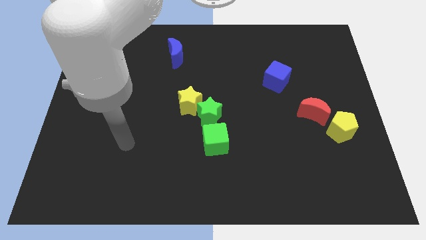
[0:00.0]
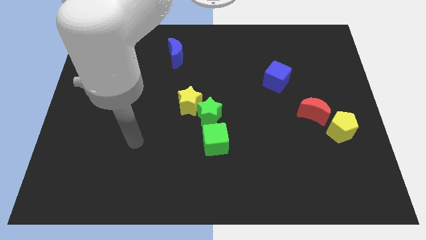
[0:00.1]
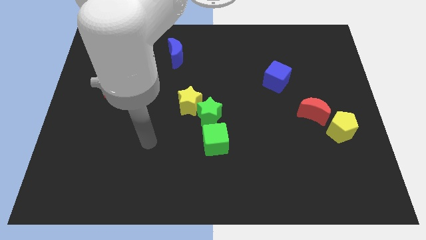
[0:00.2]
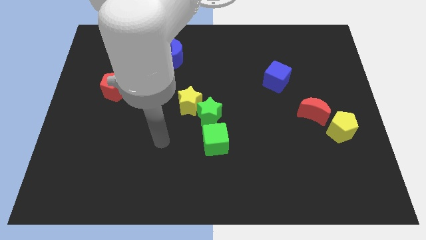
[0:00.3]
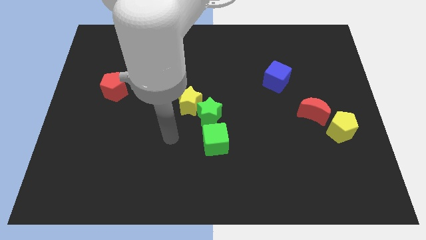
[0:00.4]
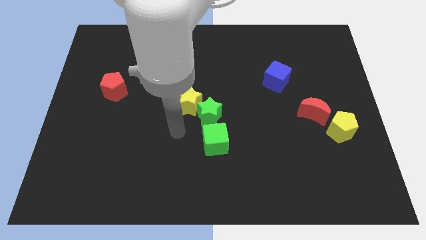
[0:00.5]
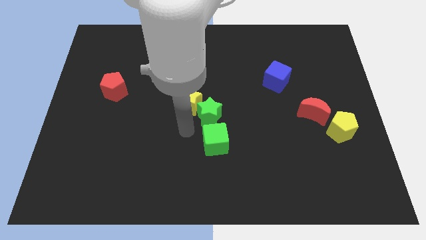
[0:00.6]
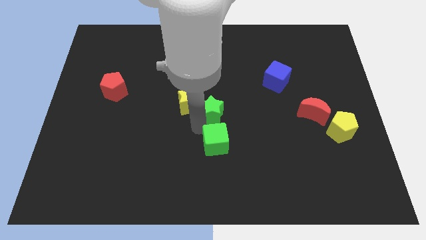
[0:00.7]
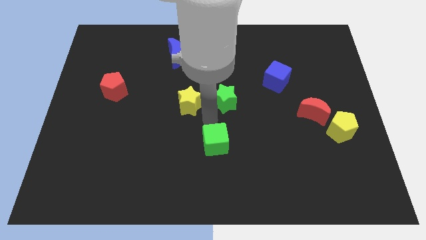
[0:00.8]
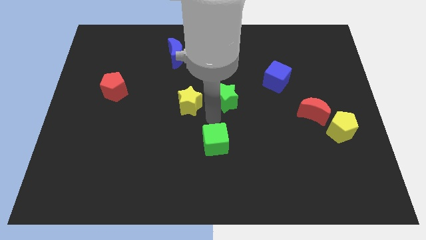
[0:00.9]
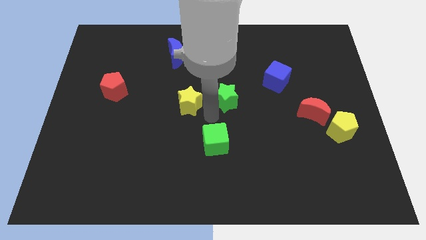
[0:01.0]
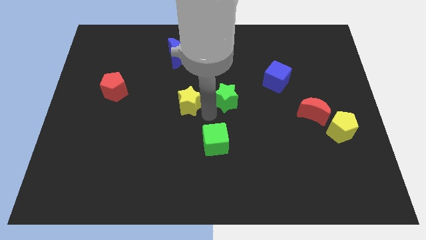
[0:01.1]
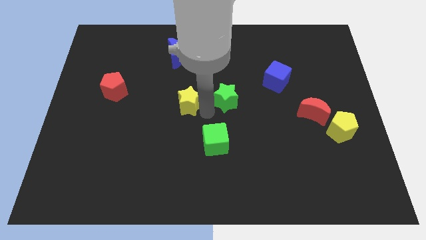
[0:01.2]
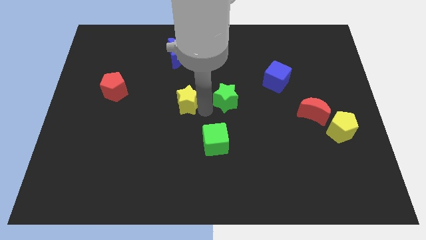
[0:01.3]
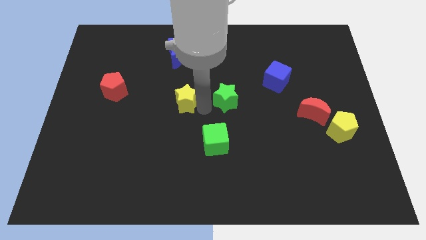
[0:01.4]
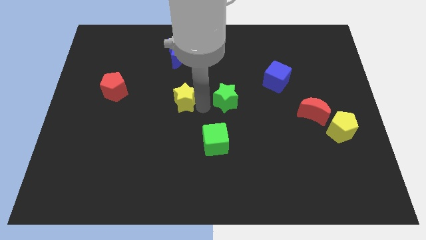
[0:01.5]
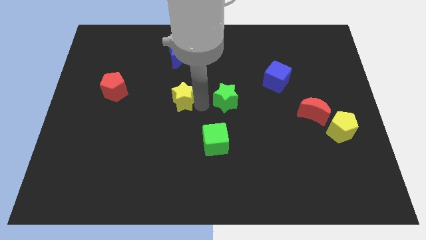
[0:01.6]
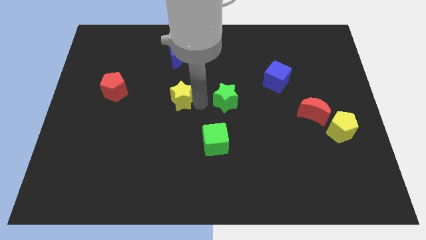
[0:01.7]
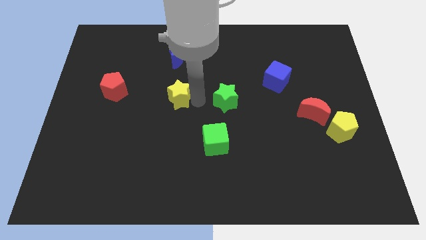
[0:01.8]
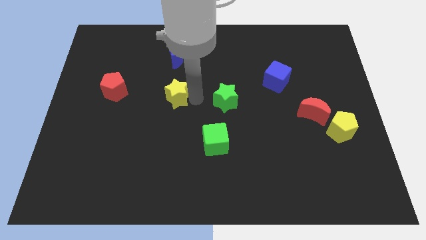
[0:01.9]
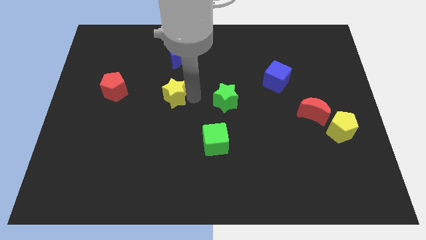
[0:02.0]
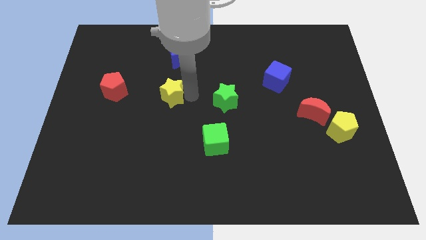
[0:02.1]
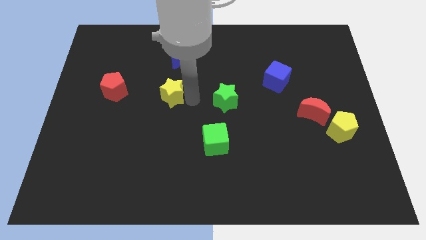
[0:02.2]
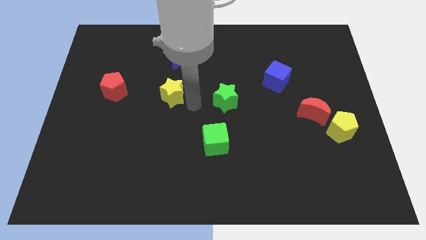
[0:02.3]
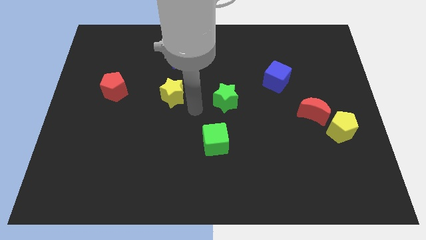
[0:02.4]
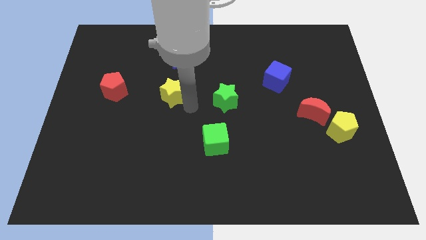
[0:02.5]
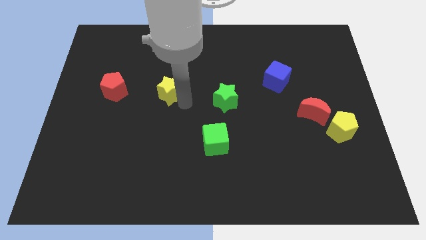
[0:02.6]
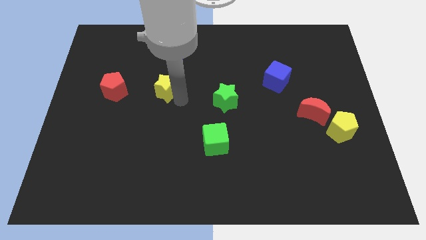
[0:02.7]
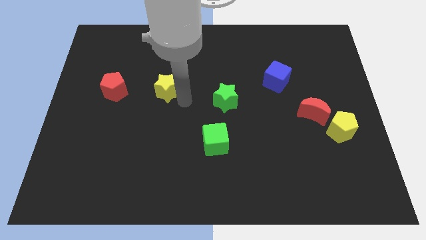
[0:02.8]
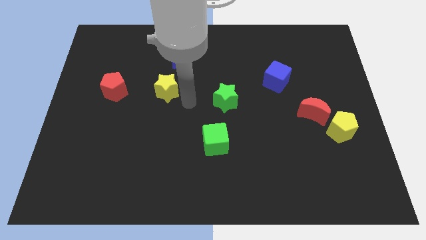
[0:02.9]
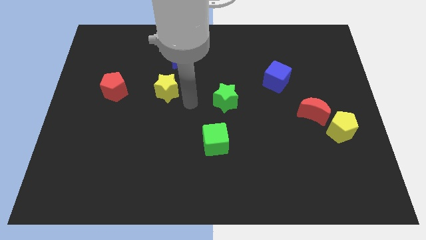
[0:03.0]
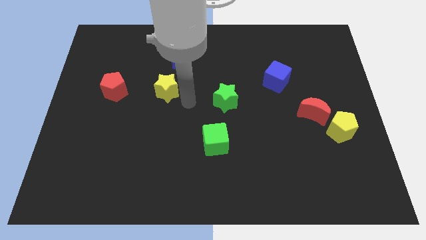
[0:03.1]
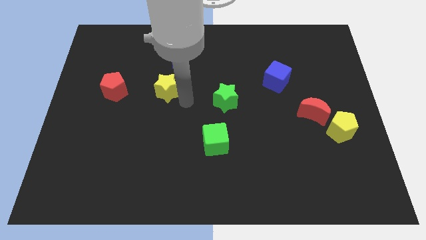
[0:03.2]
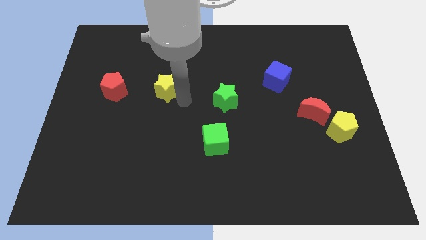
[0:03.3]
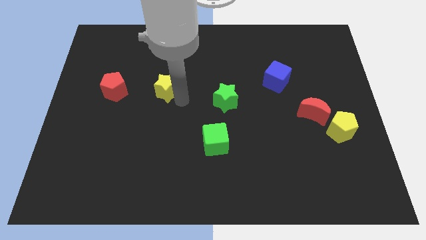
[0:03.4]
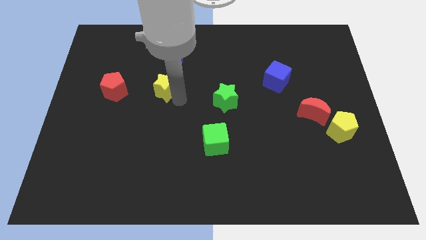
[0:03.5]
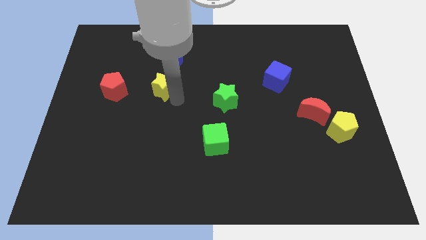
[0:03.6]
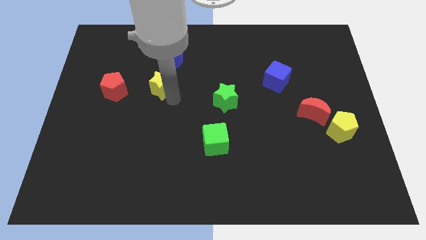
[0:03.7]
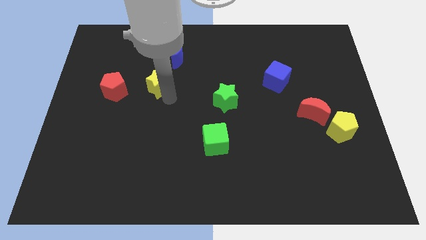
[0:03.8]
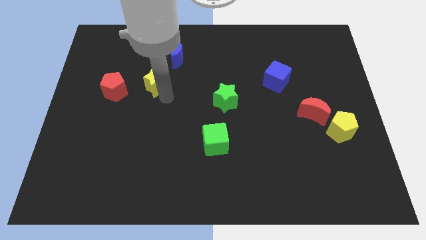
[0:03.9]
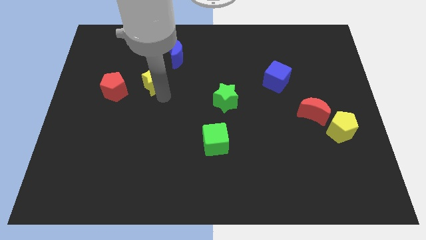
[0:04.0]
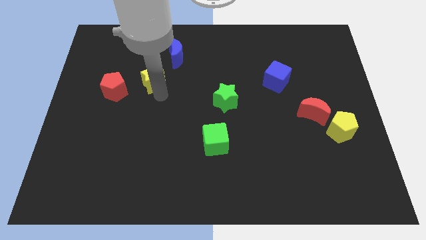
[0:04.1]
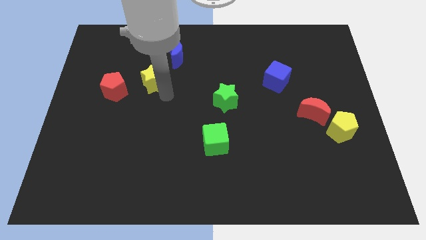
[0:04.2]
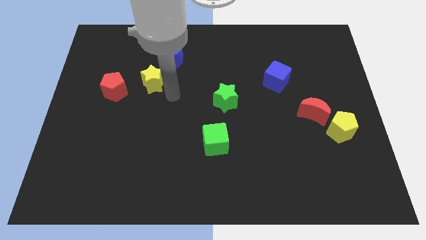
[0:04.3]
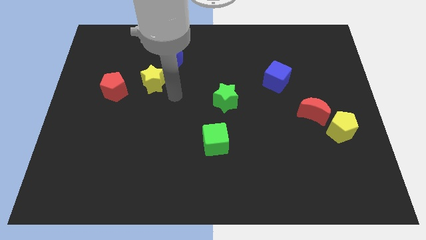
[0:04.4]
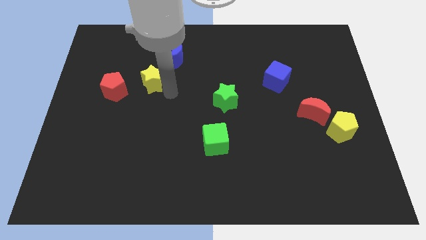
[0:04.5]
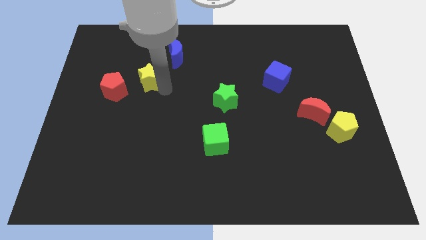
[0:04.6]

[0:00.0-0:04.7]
push the yellow star to the top right side of the red pentagon

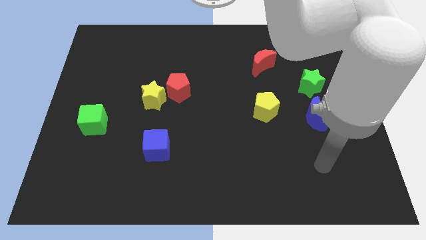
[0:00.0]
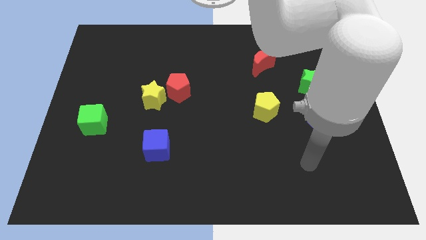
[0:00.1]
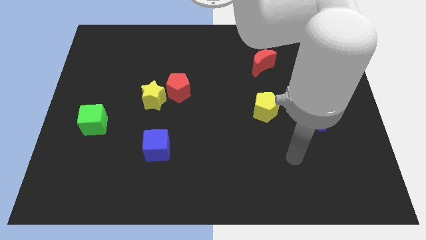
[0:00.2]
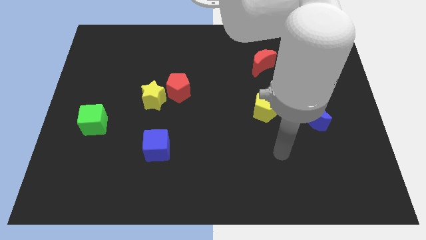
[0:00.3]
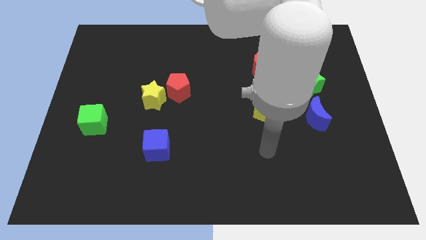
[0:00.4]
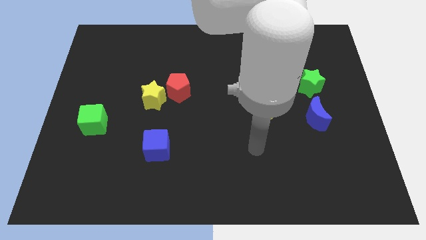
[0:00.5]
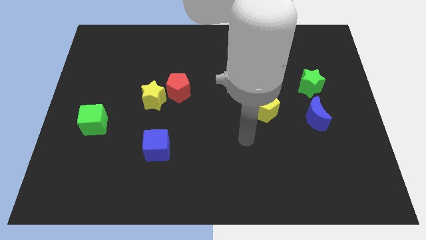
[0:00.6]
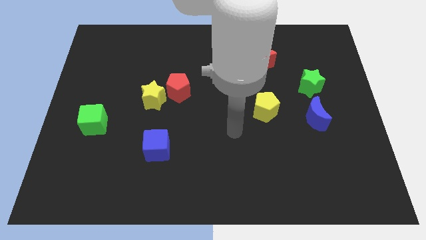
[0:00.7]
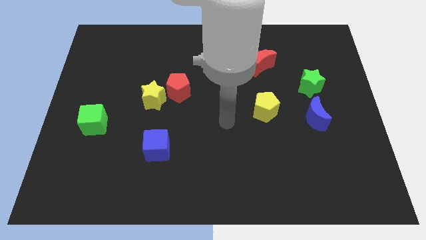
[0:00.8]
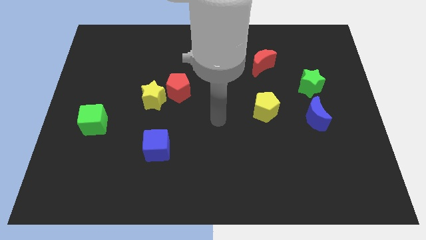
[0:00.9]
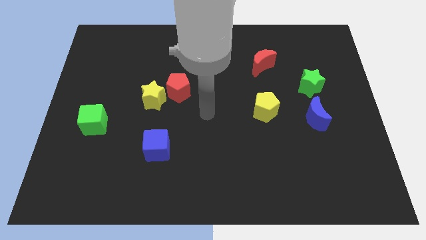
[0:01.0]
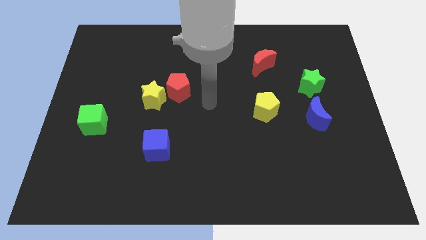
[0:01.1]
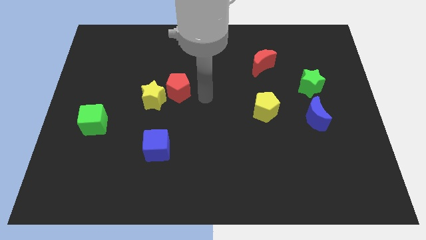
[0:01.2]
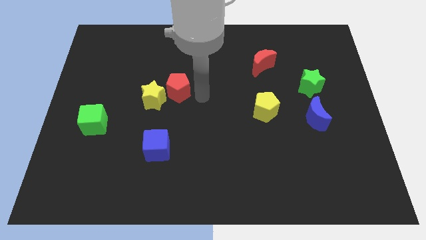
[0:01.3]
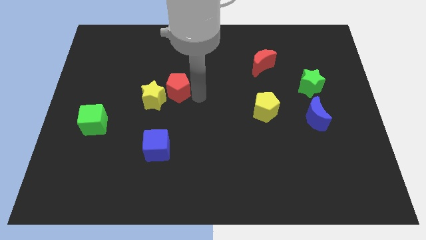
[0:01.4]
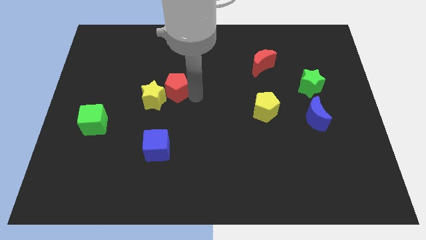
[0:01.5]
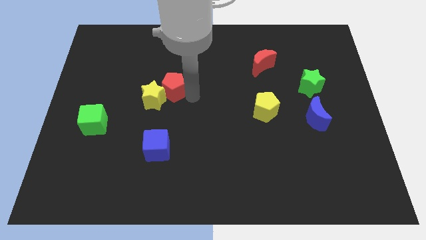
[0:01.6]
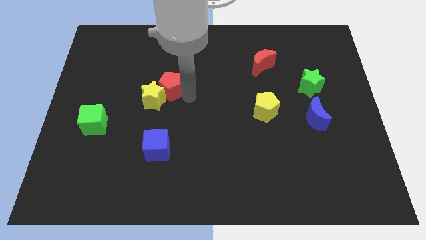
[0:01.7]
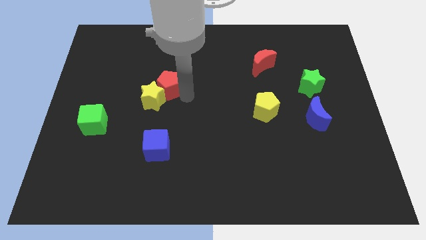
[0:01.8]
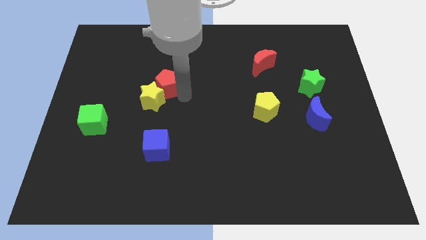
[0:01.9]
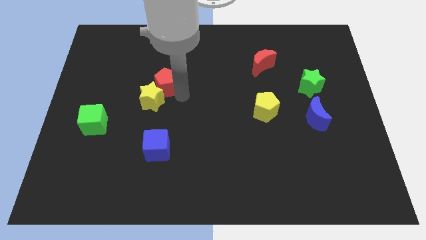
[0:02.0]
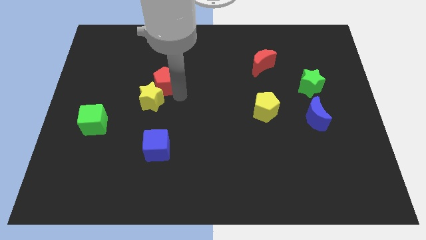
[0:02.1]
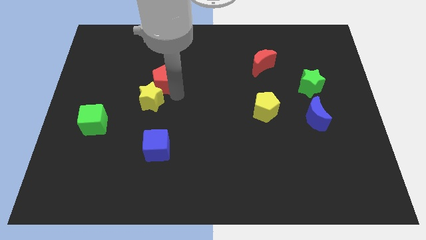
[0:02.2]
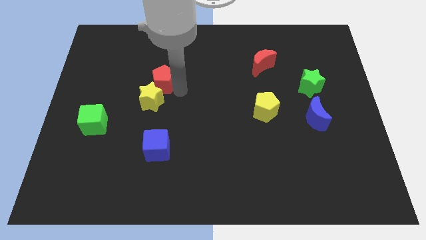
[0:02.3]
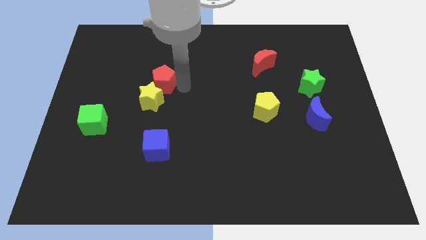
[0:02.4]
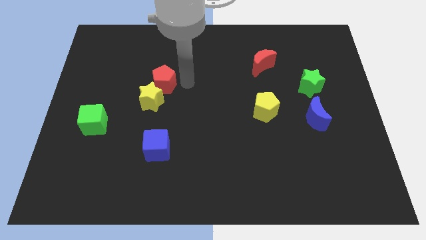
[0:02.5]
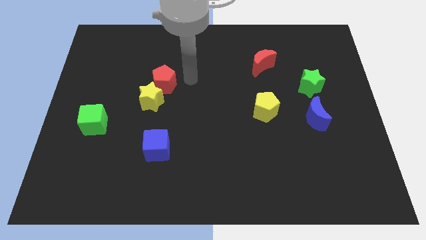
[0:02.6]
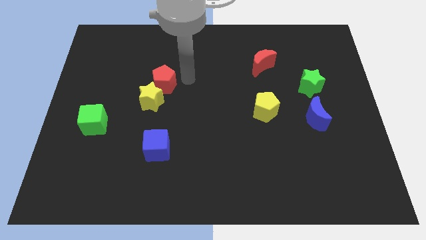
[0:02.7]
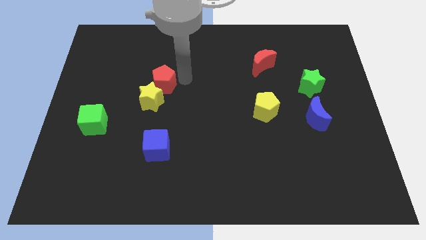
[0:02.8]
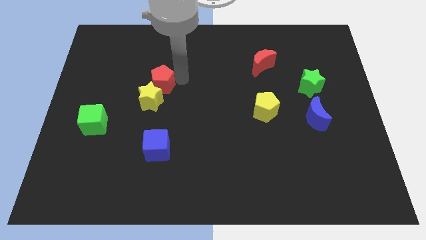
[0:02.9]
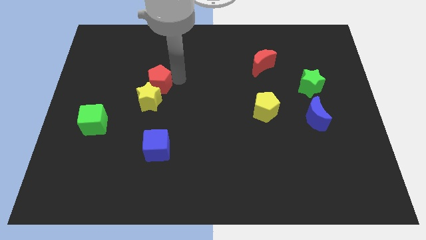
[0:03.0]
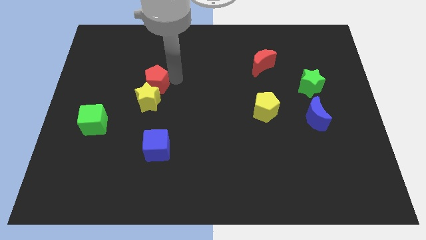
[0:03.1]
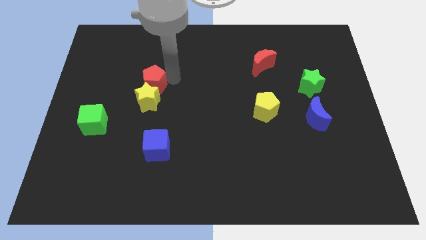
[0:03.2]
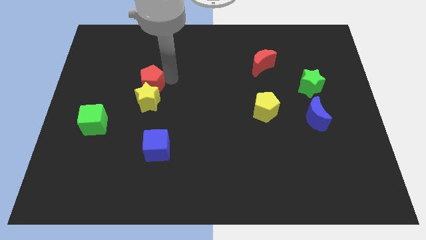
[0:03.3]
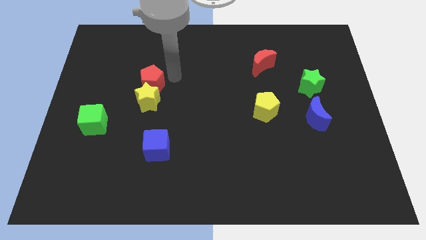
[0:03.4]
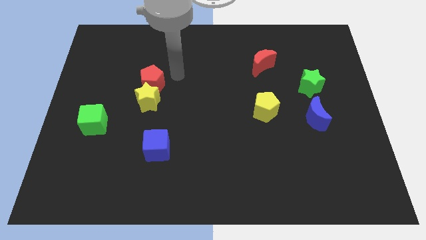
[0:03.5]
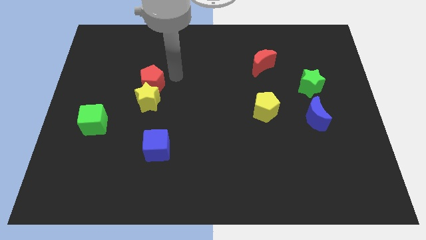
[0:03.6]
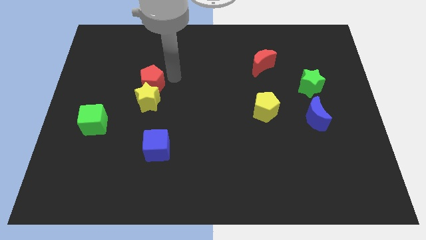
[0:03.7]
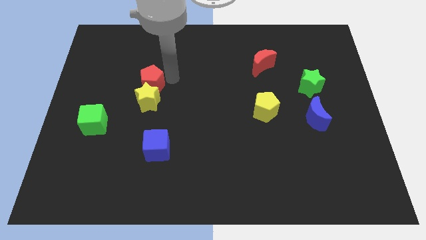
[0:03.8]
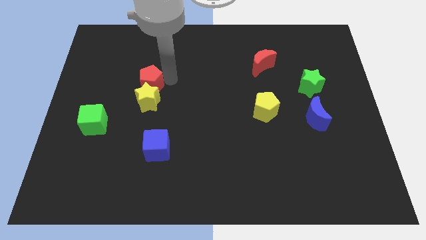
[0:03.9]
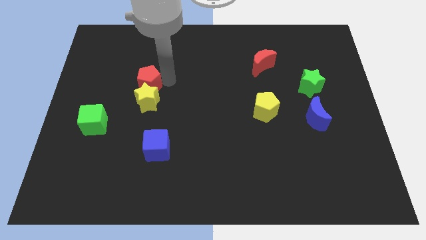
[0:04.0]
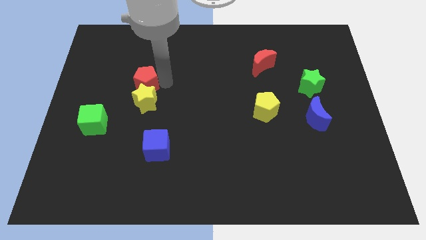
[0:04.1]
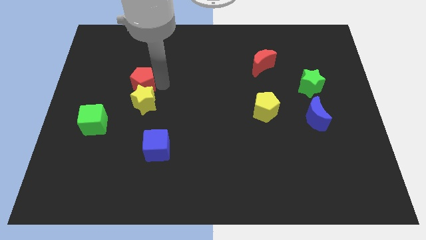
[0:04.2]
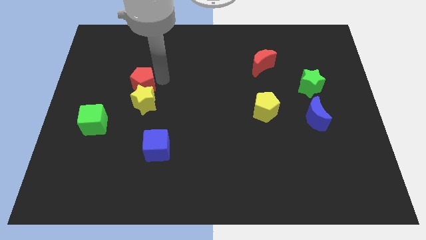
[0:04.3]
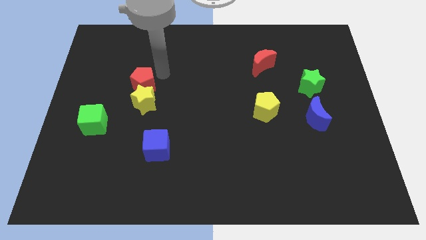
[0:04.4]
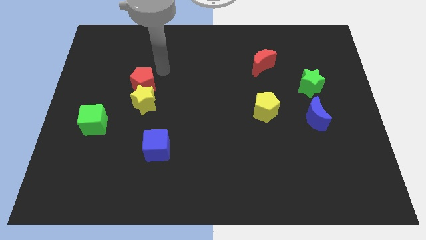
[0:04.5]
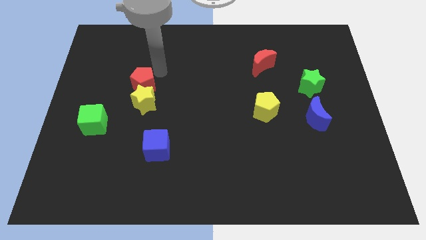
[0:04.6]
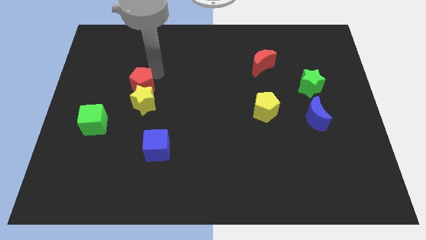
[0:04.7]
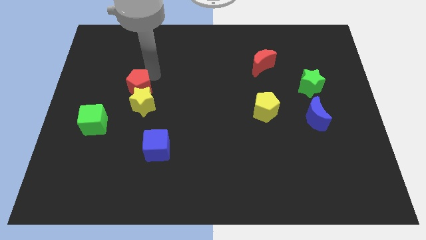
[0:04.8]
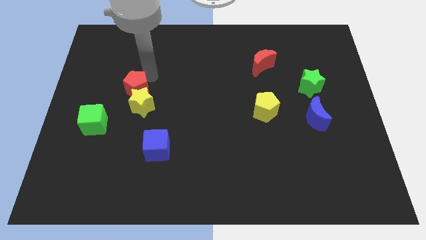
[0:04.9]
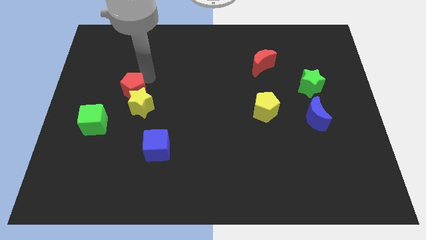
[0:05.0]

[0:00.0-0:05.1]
push the red pentagon to the top right of the green cube
